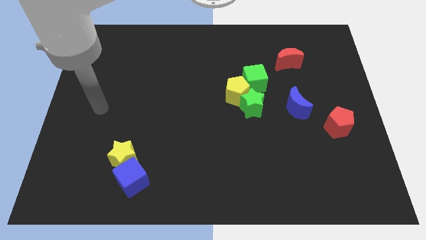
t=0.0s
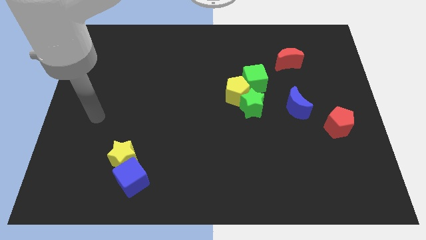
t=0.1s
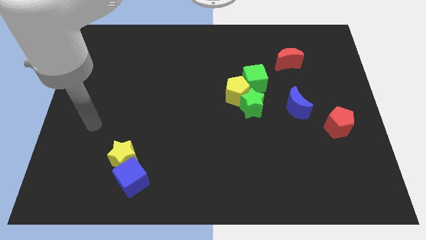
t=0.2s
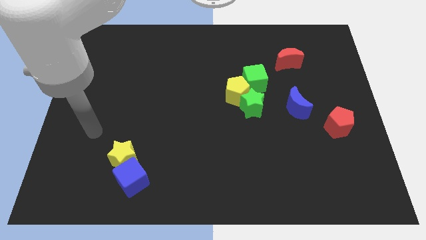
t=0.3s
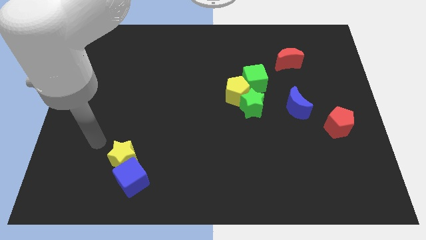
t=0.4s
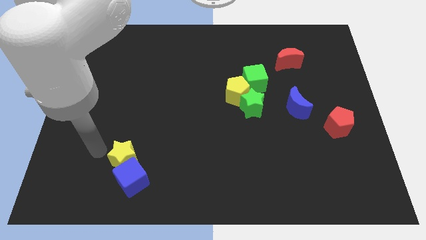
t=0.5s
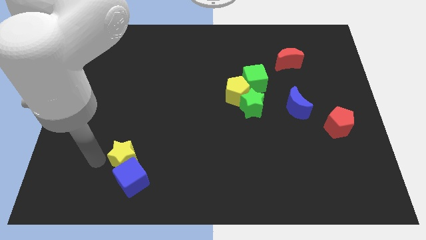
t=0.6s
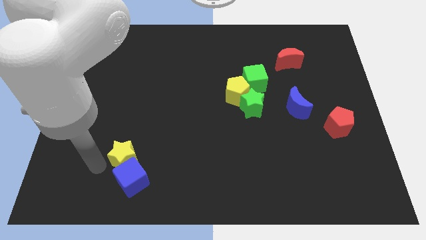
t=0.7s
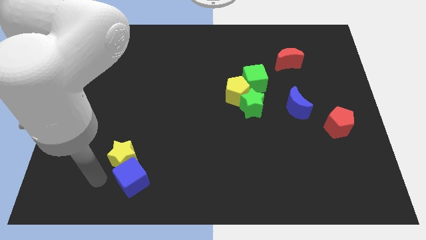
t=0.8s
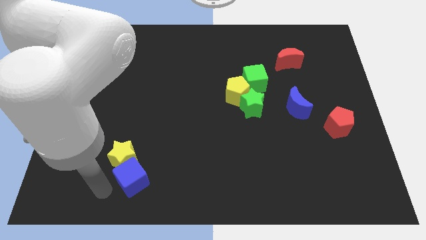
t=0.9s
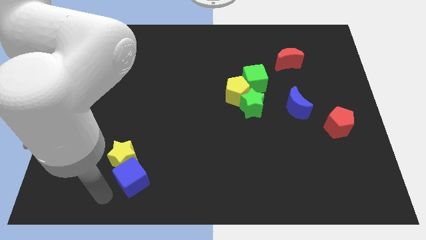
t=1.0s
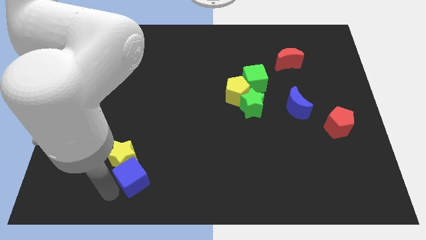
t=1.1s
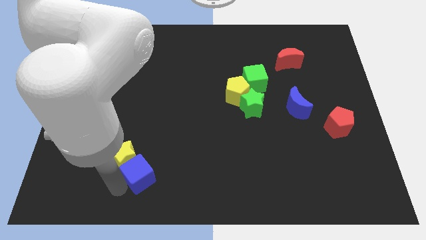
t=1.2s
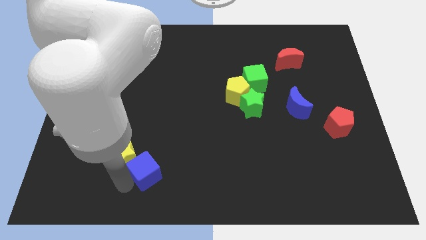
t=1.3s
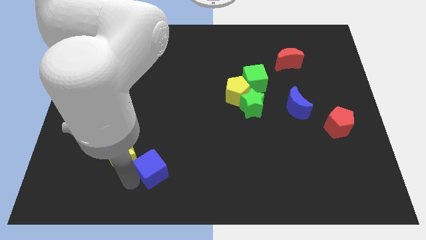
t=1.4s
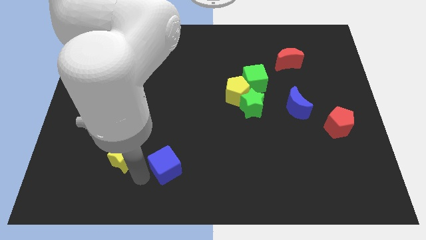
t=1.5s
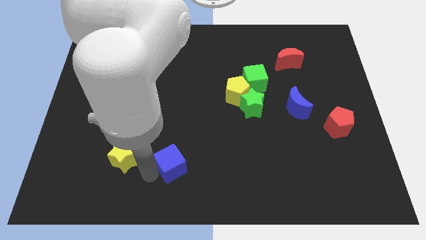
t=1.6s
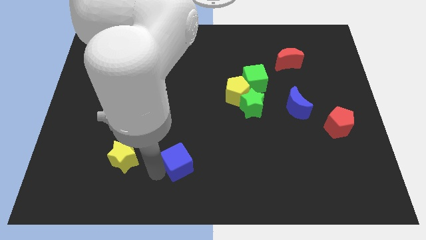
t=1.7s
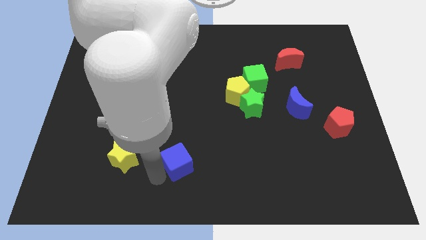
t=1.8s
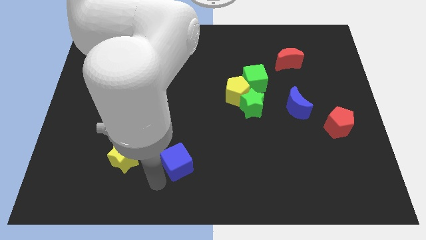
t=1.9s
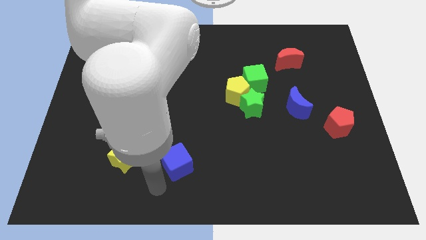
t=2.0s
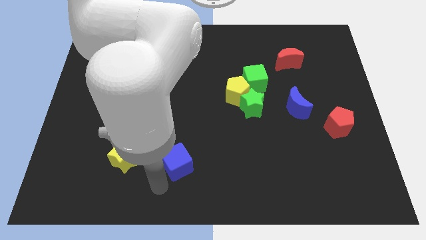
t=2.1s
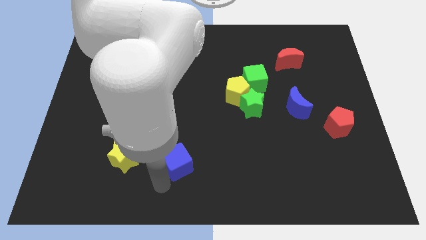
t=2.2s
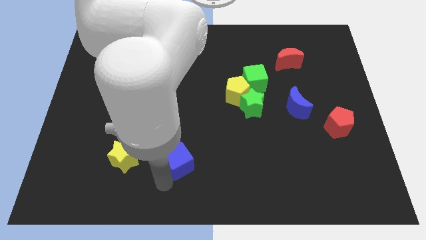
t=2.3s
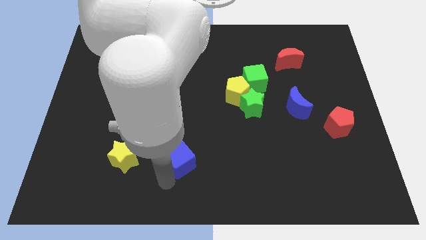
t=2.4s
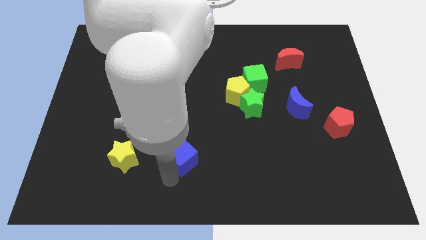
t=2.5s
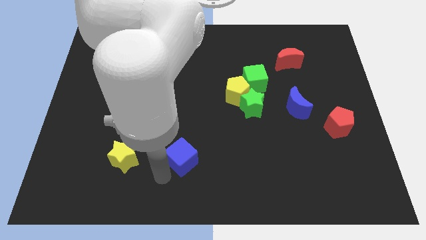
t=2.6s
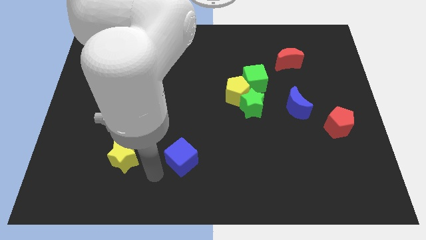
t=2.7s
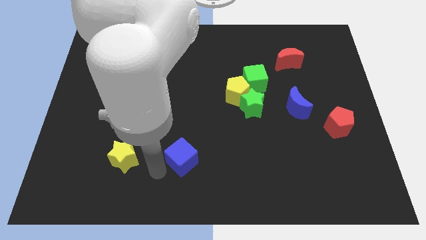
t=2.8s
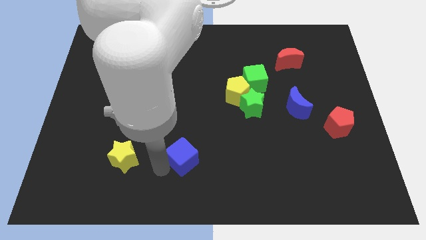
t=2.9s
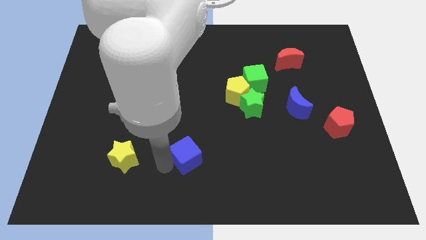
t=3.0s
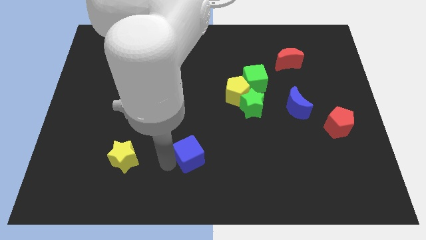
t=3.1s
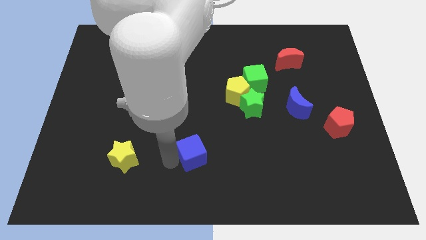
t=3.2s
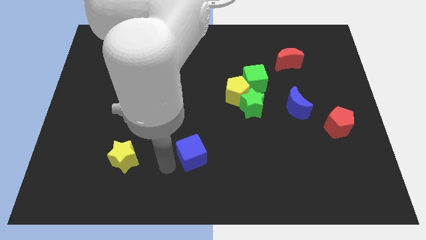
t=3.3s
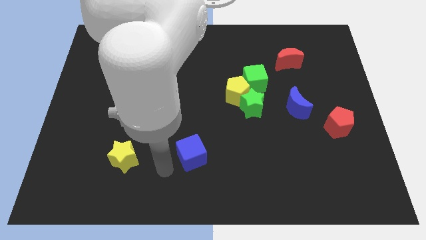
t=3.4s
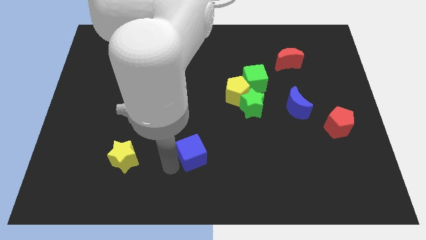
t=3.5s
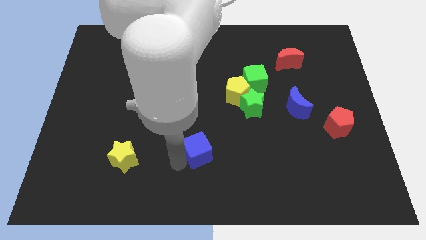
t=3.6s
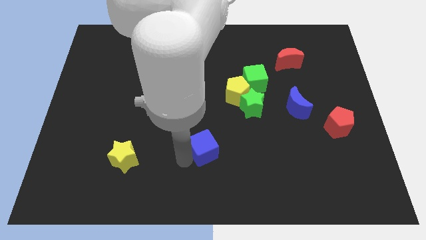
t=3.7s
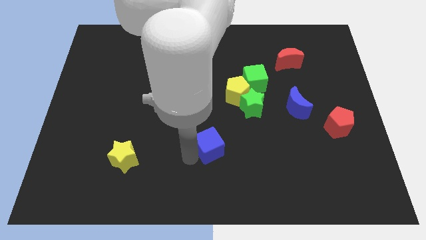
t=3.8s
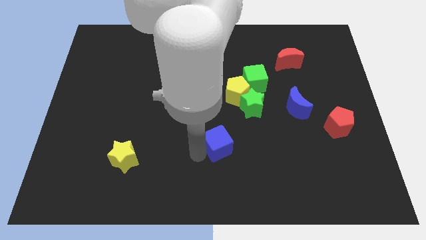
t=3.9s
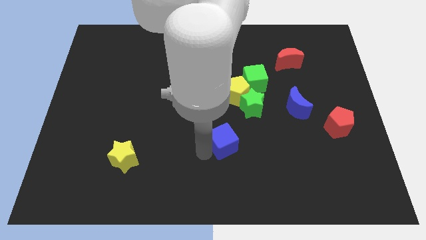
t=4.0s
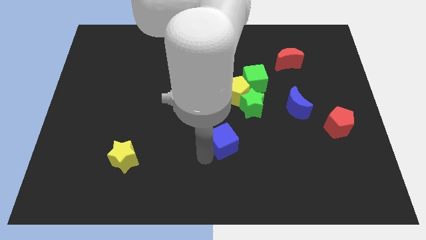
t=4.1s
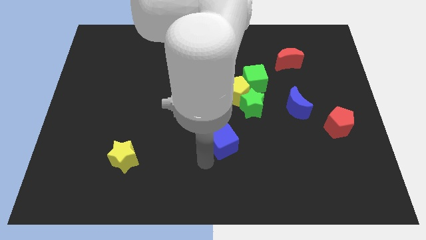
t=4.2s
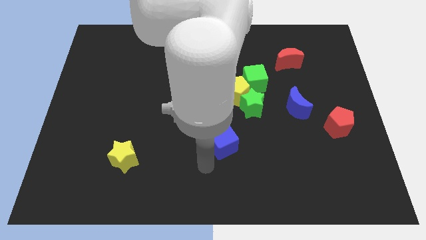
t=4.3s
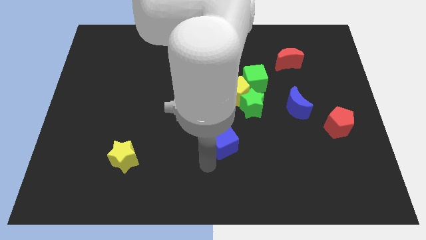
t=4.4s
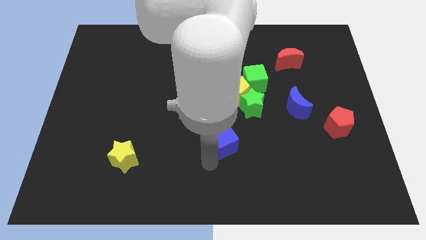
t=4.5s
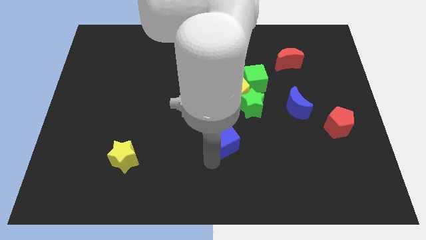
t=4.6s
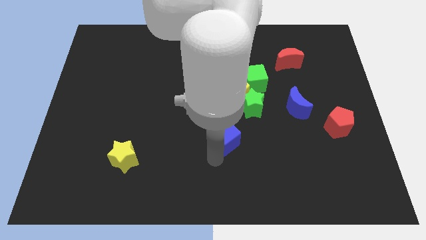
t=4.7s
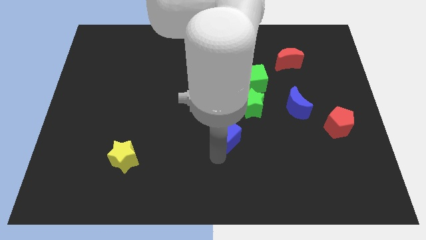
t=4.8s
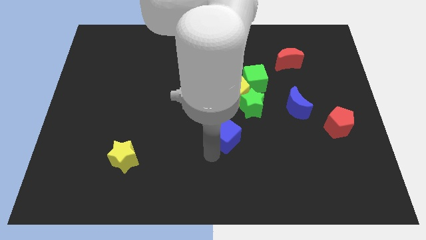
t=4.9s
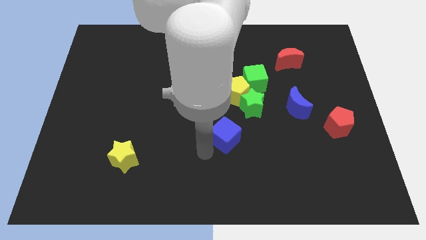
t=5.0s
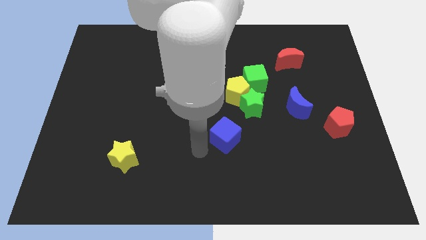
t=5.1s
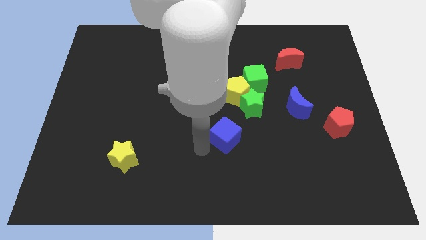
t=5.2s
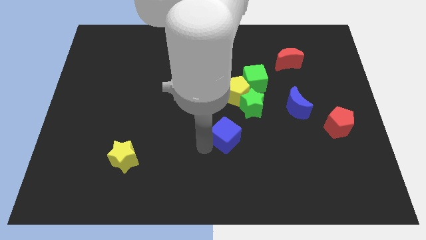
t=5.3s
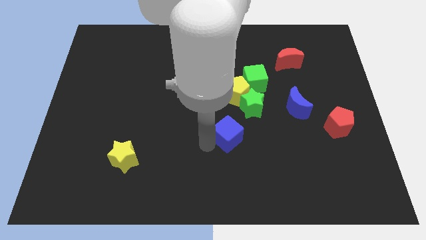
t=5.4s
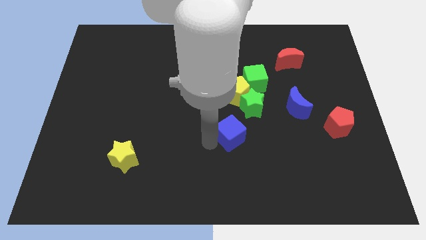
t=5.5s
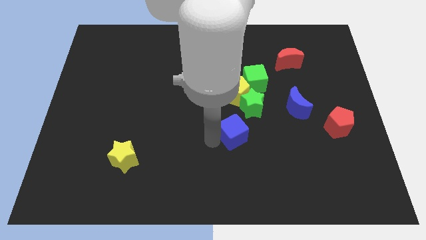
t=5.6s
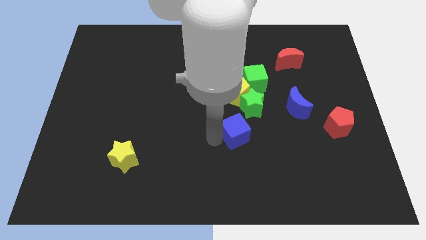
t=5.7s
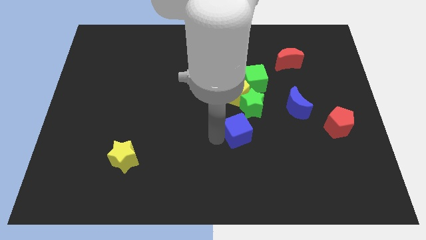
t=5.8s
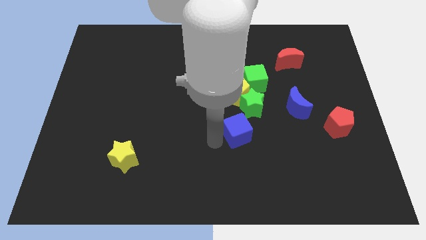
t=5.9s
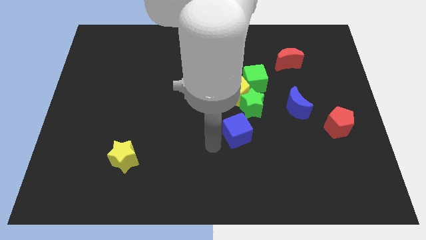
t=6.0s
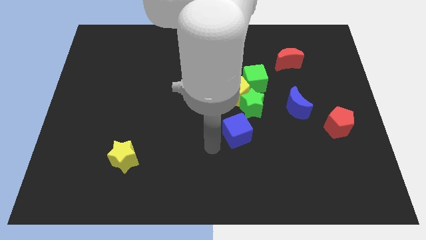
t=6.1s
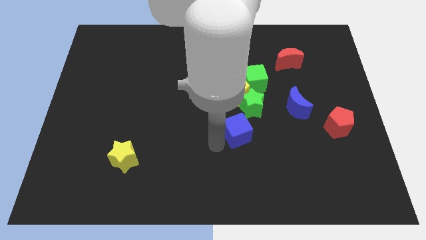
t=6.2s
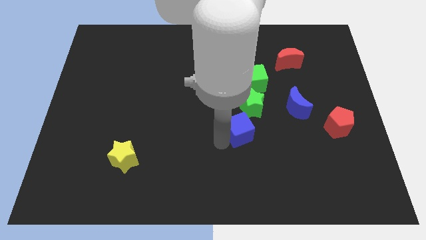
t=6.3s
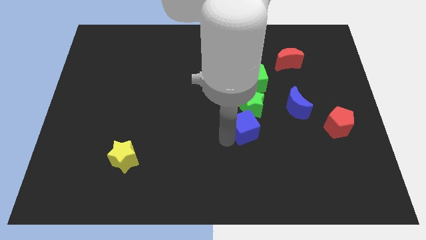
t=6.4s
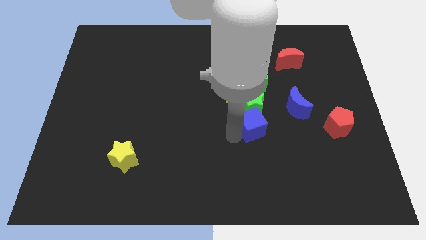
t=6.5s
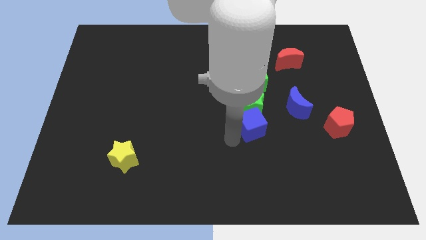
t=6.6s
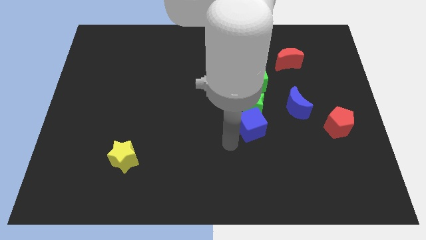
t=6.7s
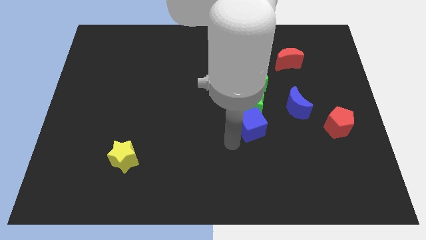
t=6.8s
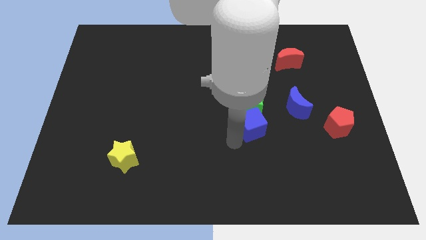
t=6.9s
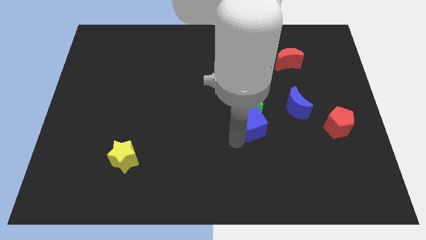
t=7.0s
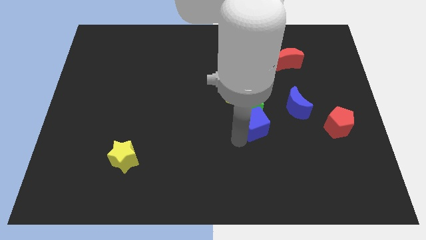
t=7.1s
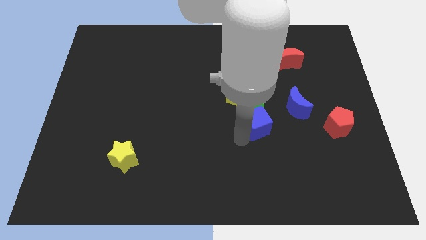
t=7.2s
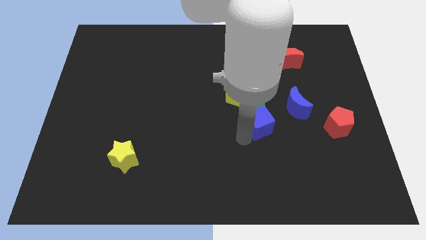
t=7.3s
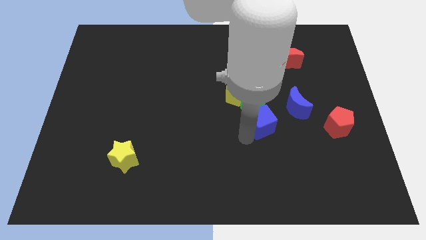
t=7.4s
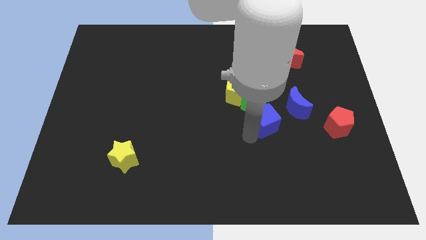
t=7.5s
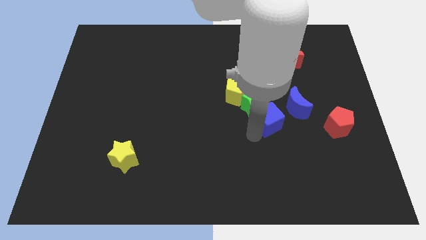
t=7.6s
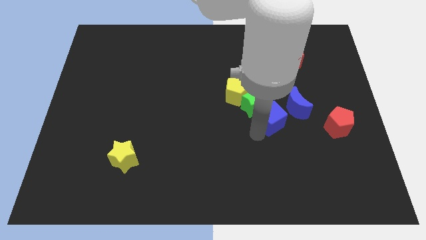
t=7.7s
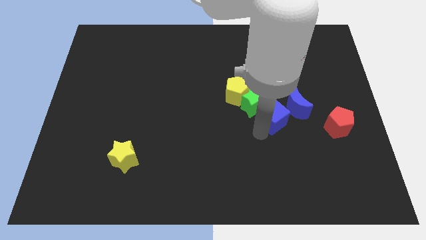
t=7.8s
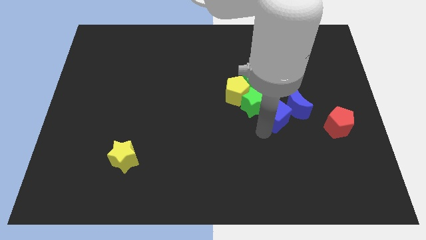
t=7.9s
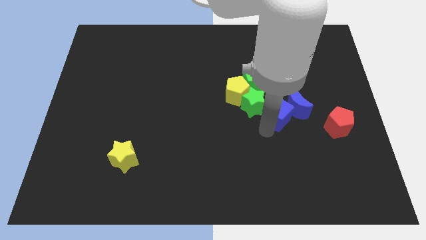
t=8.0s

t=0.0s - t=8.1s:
slide the blue cube to the bottom right side of the green cube
